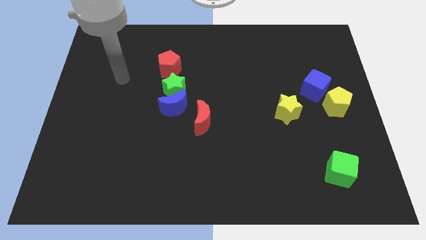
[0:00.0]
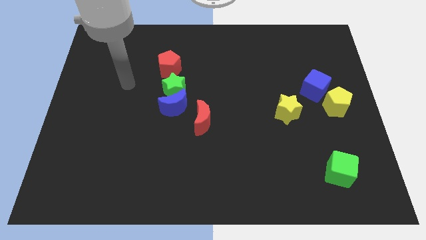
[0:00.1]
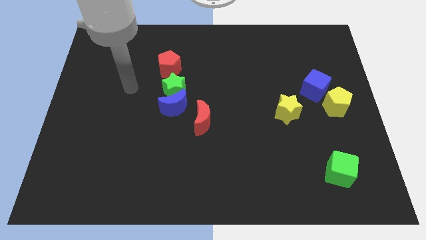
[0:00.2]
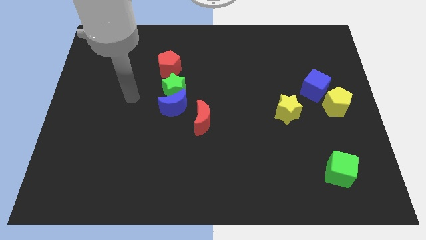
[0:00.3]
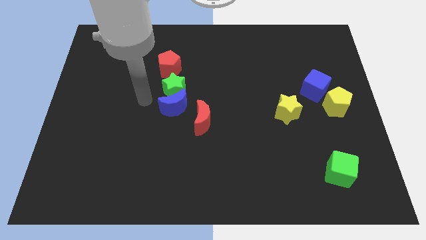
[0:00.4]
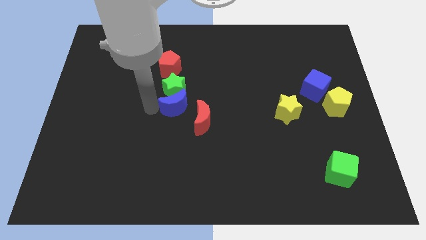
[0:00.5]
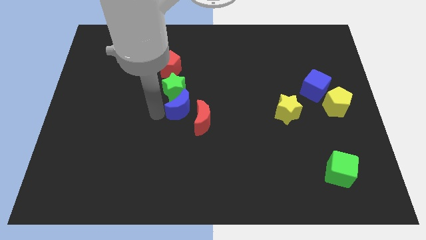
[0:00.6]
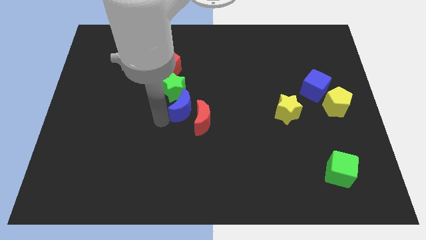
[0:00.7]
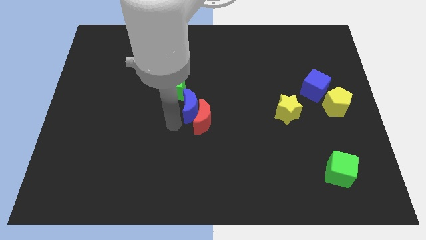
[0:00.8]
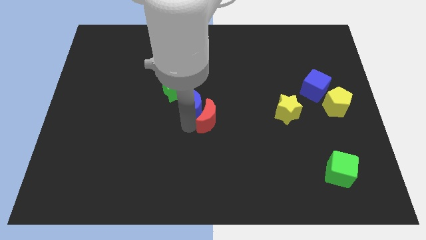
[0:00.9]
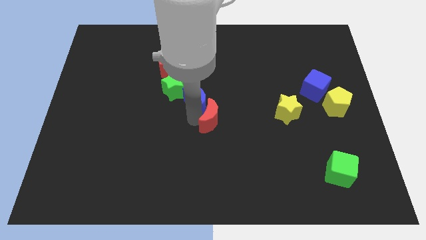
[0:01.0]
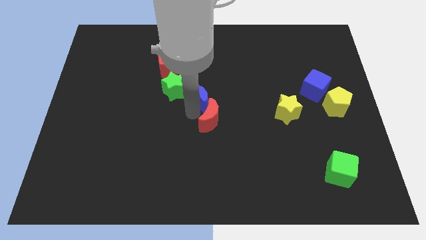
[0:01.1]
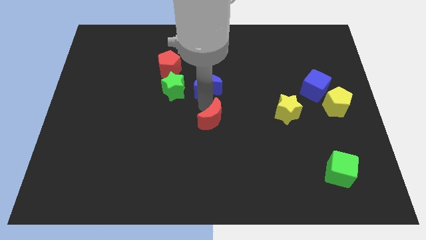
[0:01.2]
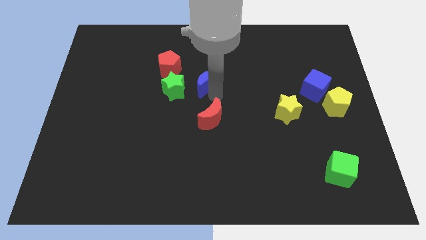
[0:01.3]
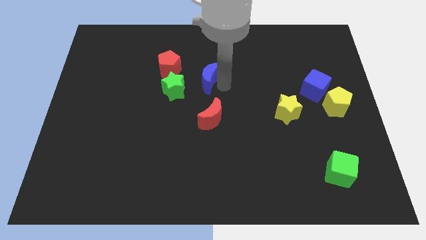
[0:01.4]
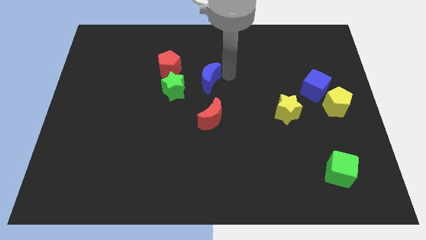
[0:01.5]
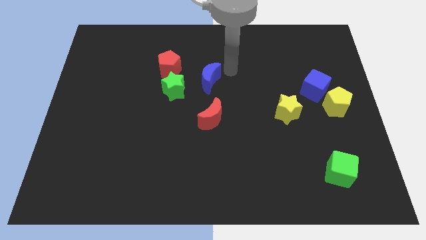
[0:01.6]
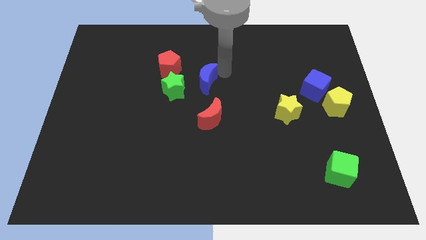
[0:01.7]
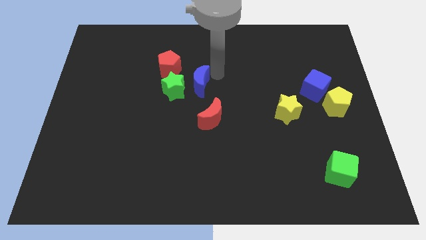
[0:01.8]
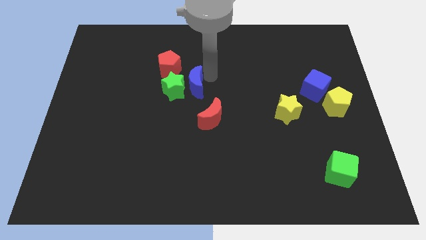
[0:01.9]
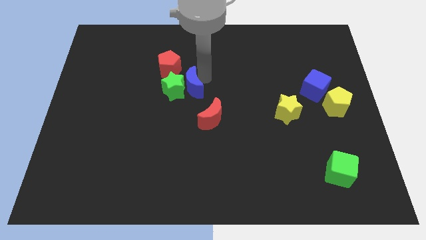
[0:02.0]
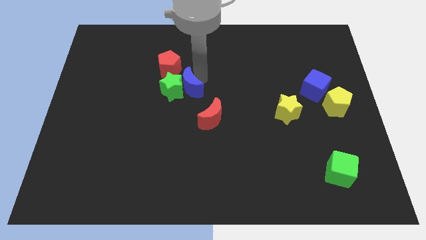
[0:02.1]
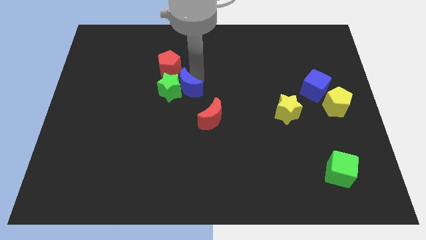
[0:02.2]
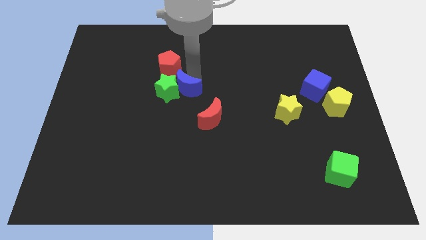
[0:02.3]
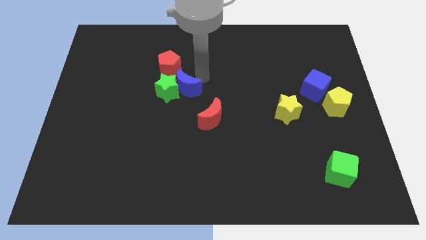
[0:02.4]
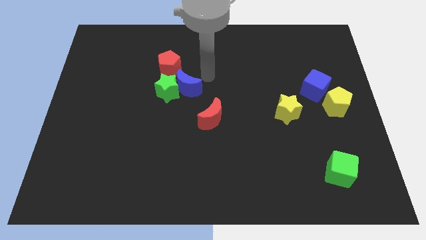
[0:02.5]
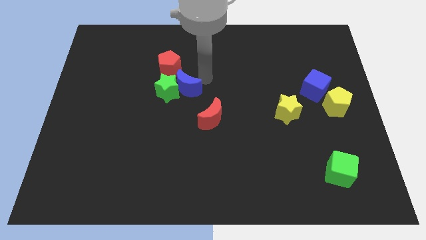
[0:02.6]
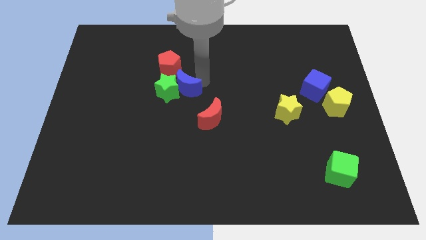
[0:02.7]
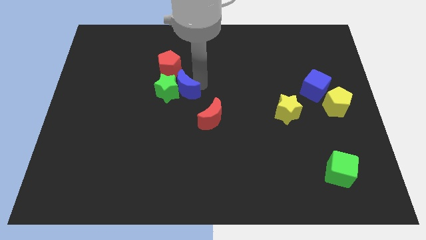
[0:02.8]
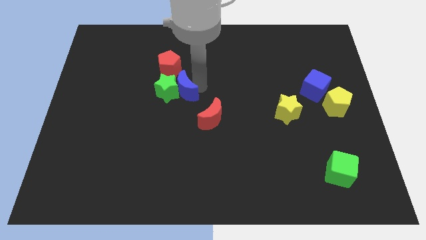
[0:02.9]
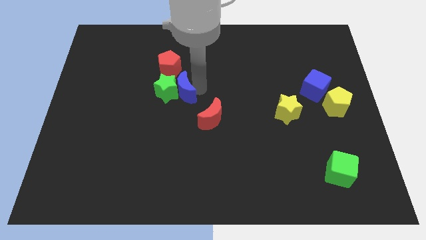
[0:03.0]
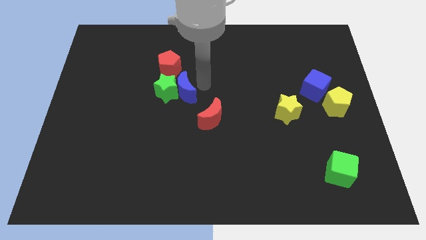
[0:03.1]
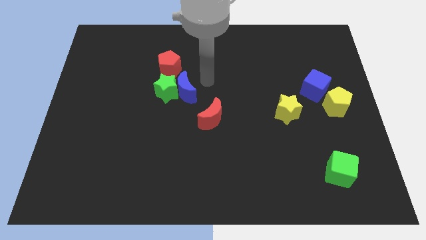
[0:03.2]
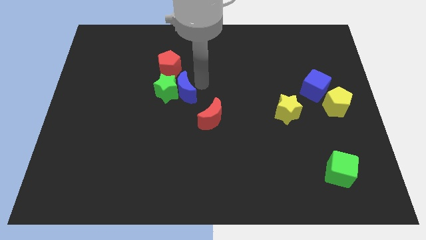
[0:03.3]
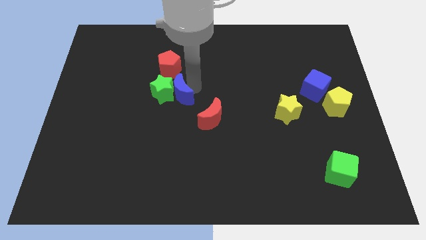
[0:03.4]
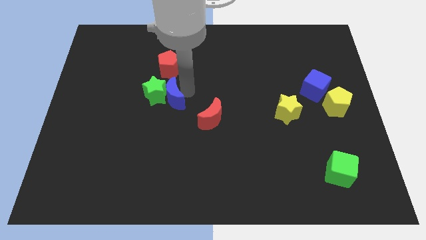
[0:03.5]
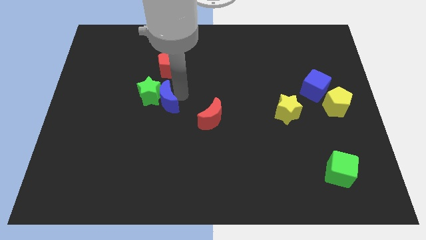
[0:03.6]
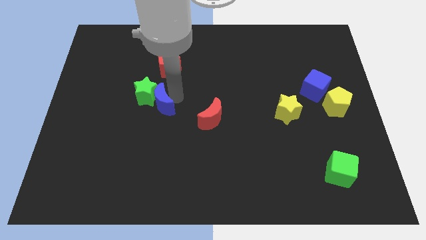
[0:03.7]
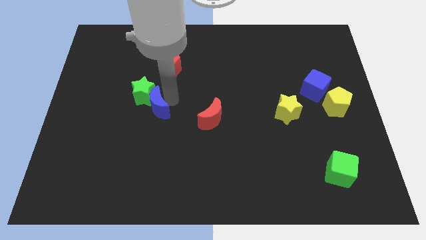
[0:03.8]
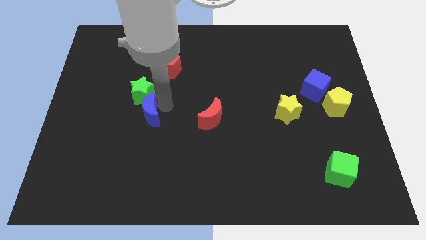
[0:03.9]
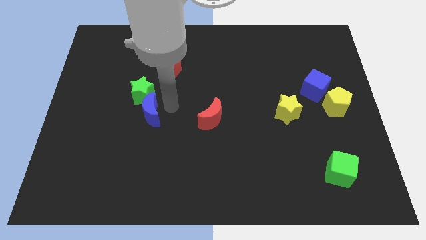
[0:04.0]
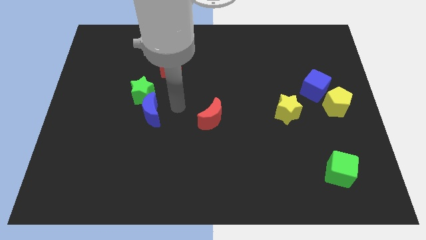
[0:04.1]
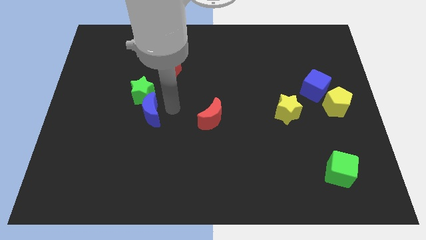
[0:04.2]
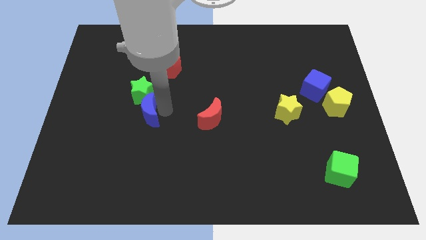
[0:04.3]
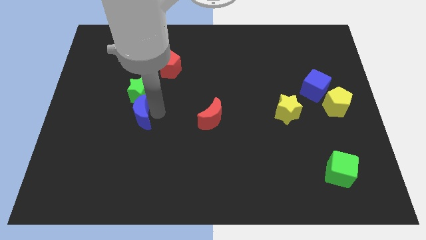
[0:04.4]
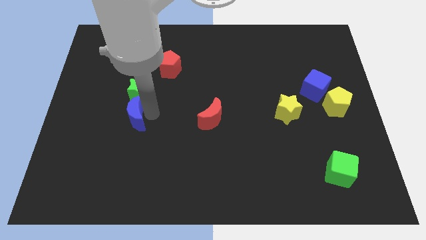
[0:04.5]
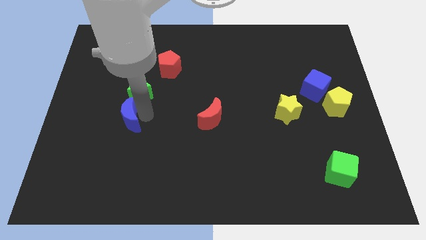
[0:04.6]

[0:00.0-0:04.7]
separate the blue moon from the green star and red moon

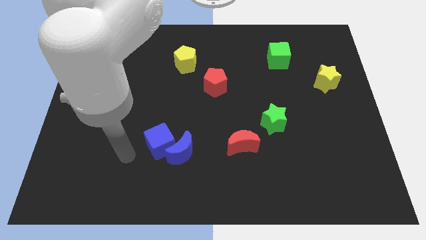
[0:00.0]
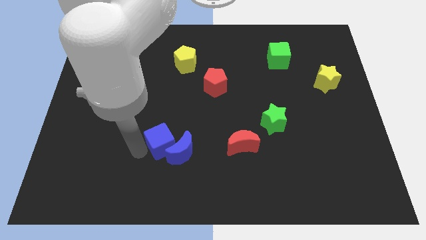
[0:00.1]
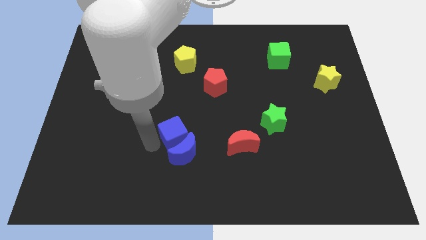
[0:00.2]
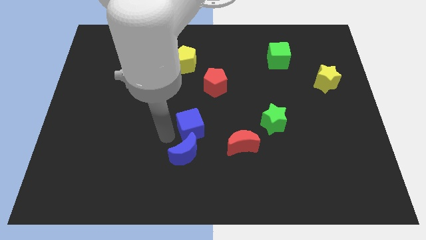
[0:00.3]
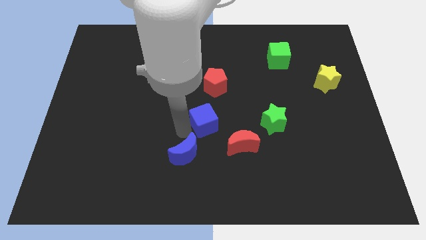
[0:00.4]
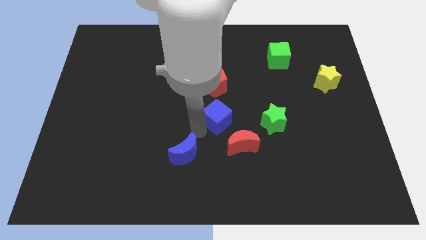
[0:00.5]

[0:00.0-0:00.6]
separate the blue moon from the blue cube

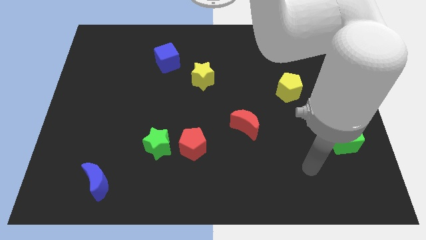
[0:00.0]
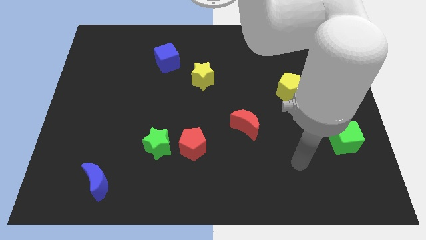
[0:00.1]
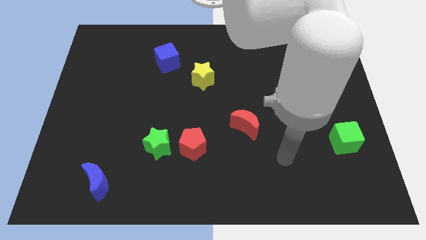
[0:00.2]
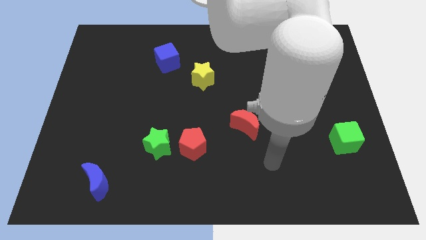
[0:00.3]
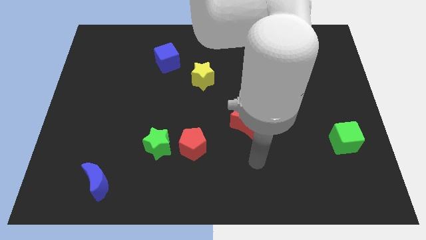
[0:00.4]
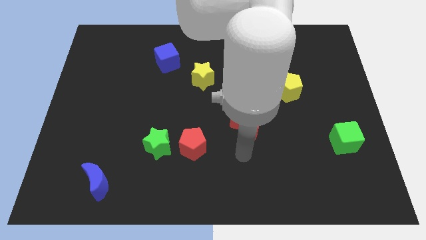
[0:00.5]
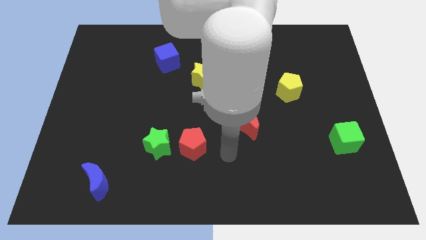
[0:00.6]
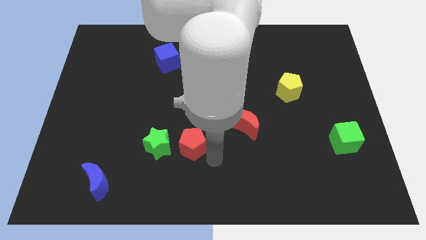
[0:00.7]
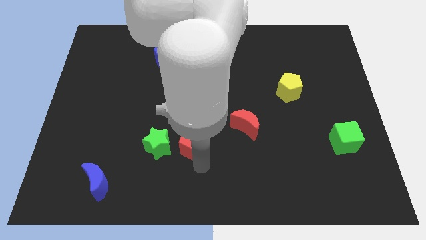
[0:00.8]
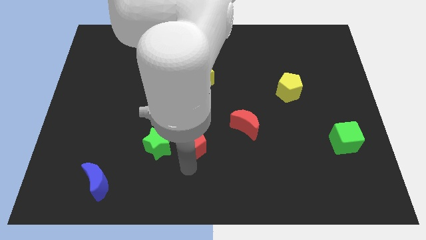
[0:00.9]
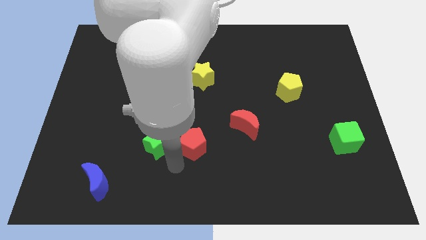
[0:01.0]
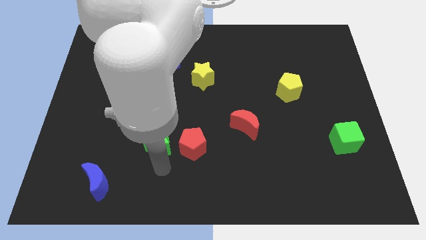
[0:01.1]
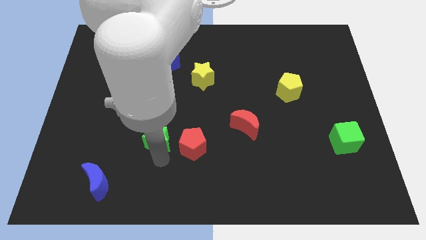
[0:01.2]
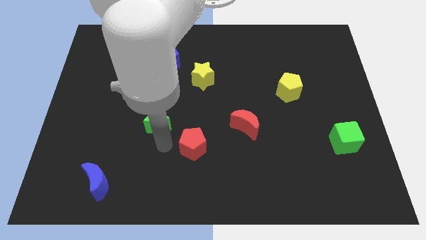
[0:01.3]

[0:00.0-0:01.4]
move the red pentagon away from the green star

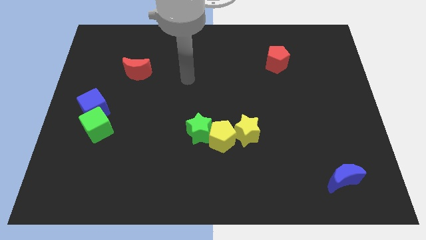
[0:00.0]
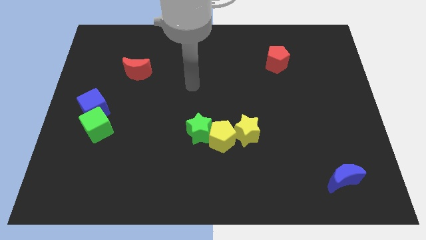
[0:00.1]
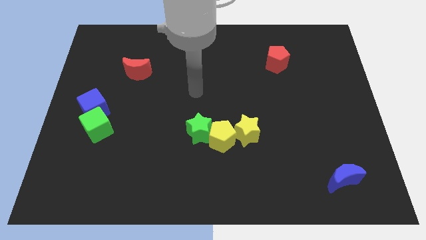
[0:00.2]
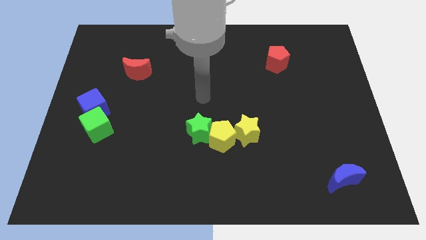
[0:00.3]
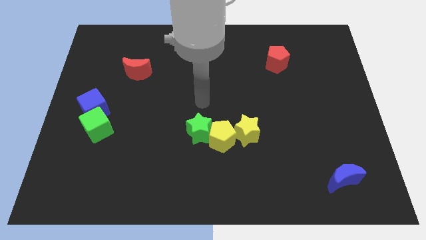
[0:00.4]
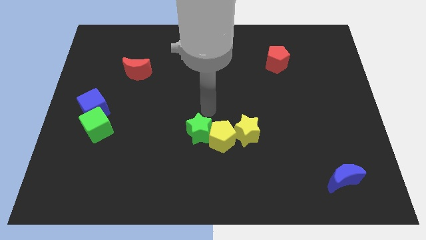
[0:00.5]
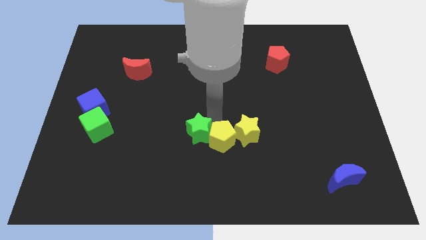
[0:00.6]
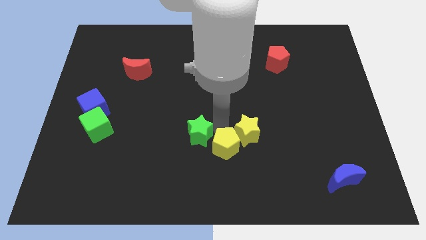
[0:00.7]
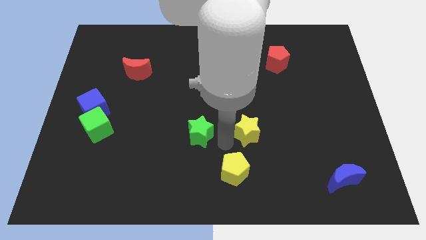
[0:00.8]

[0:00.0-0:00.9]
pull the green star apart from the yellow pentagon

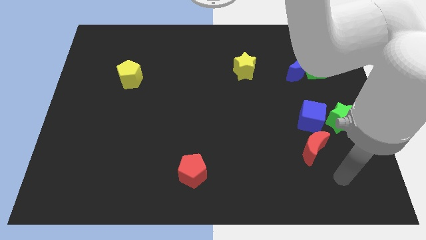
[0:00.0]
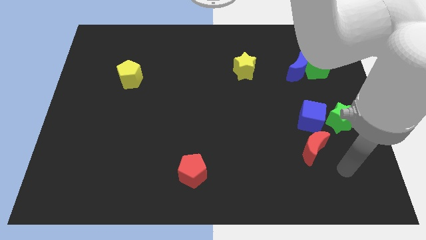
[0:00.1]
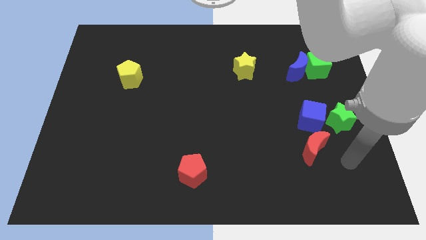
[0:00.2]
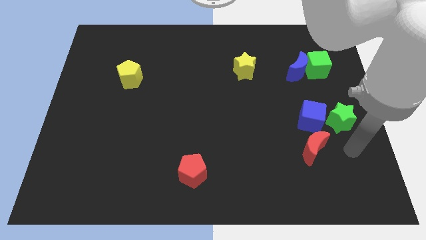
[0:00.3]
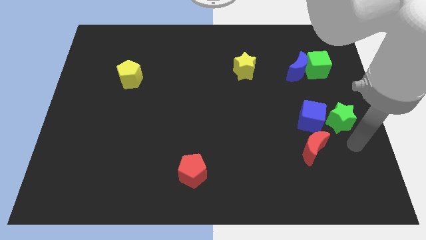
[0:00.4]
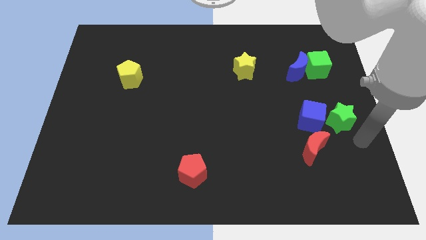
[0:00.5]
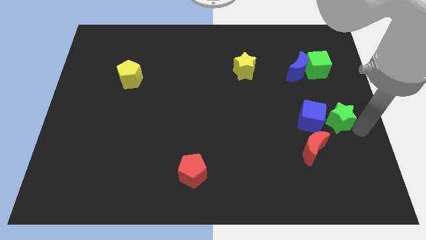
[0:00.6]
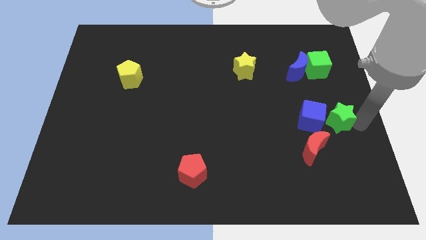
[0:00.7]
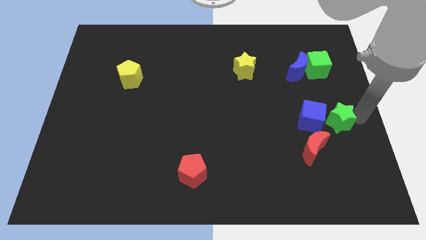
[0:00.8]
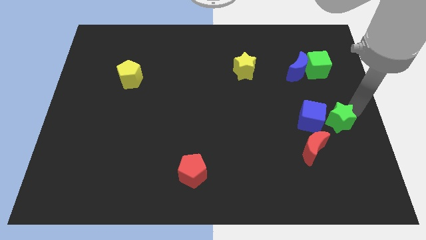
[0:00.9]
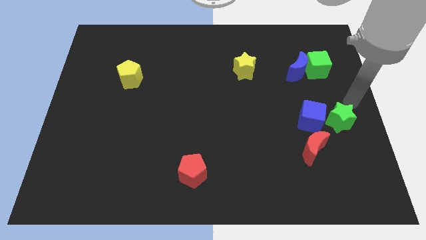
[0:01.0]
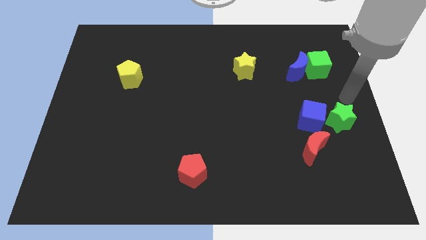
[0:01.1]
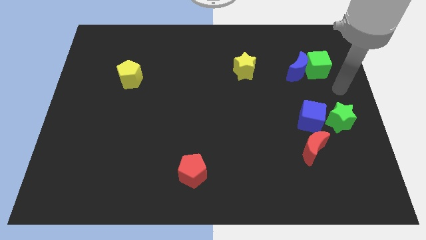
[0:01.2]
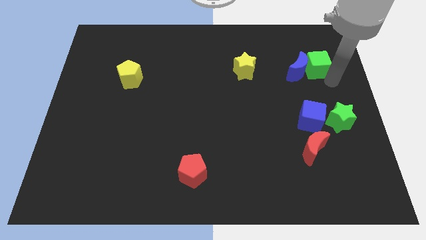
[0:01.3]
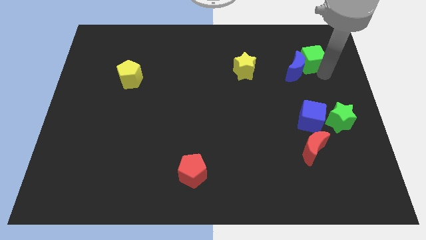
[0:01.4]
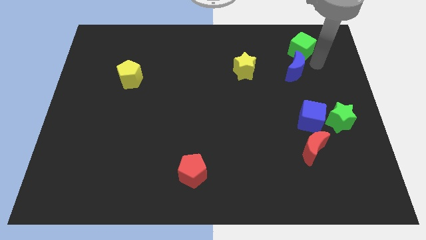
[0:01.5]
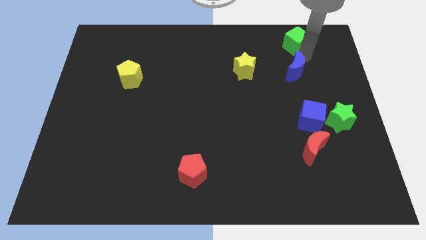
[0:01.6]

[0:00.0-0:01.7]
separate the blue moon from the green cube

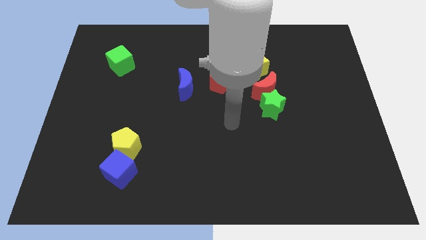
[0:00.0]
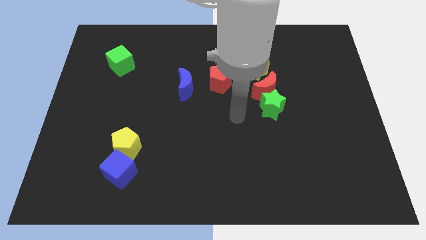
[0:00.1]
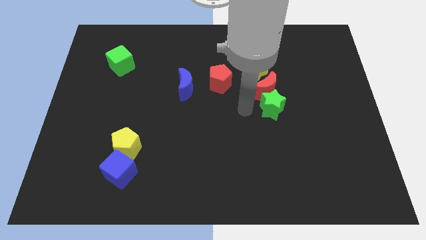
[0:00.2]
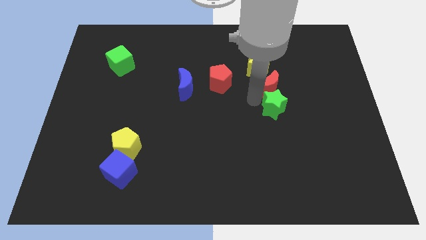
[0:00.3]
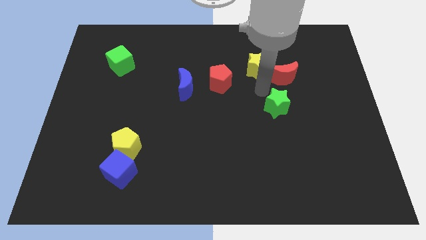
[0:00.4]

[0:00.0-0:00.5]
separate the green star from the red moon
